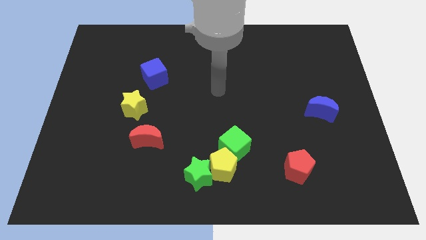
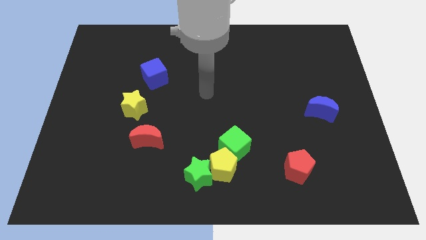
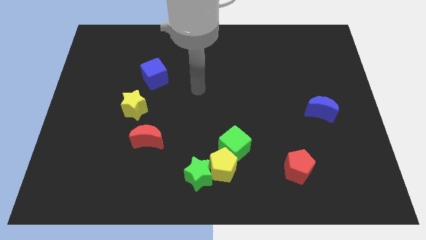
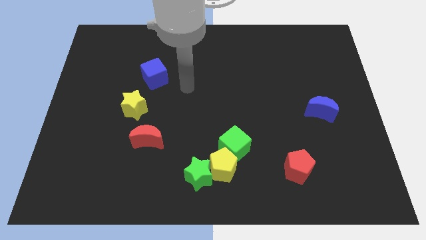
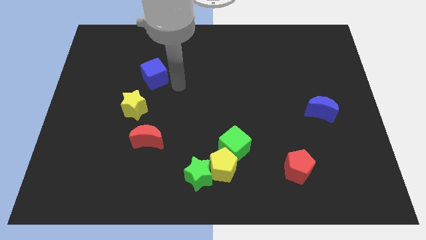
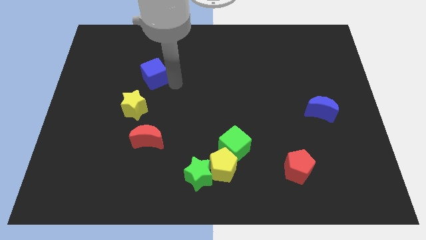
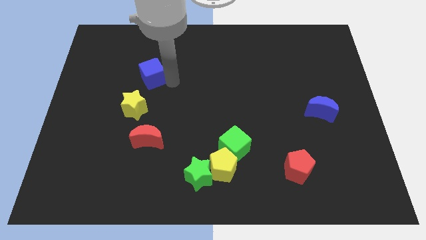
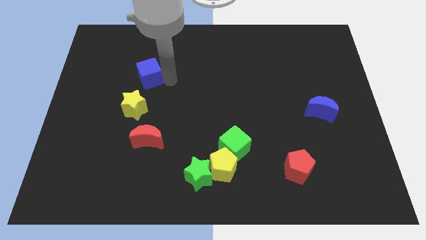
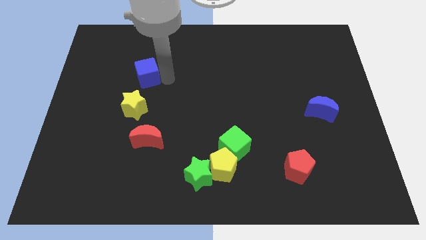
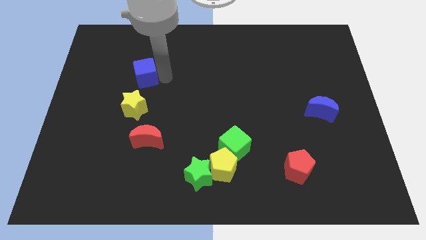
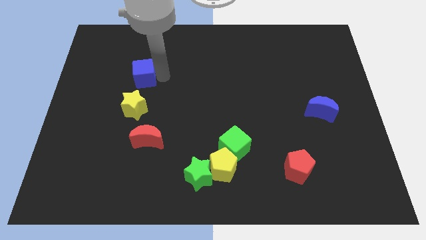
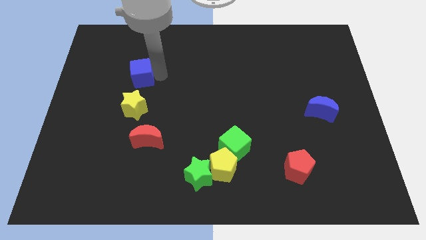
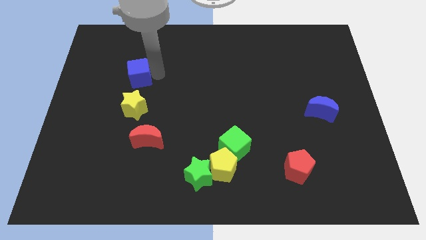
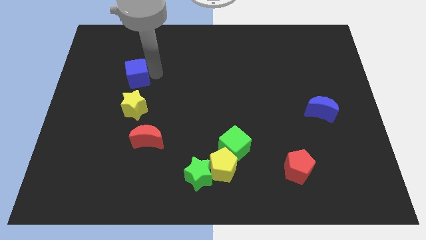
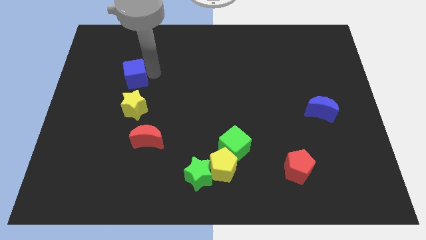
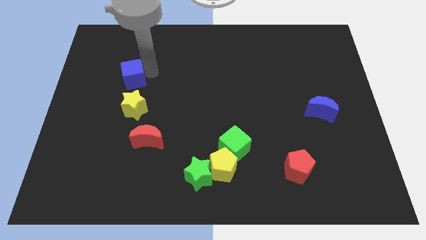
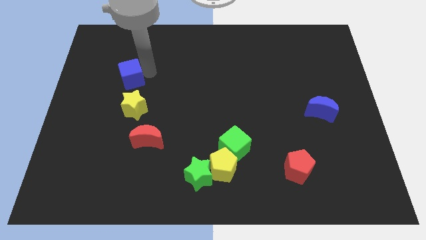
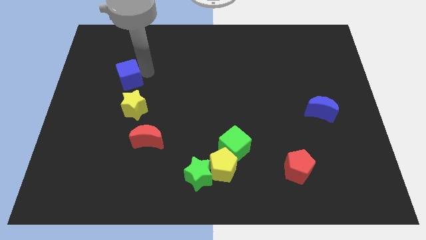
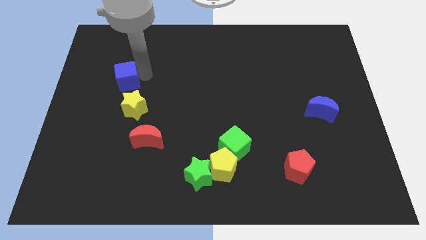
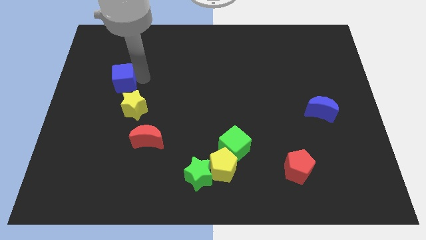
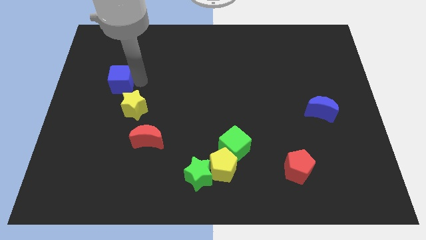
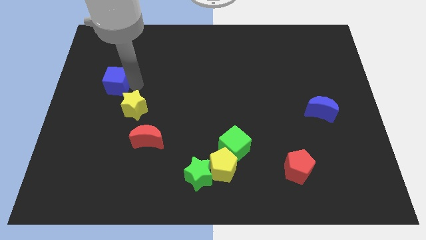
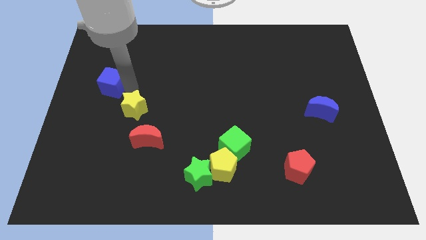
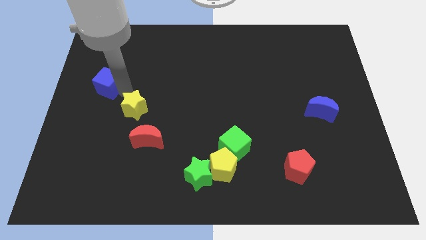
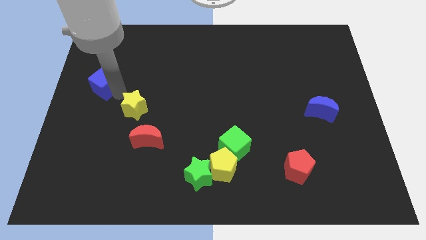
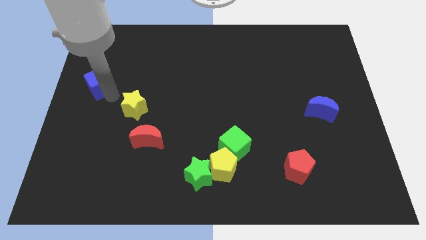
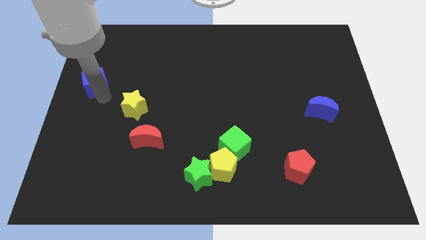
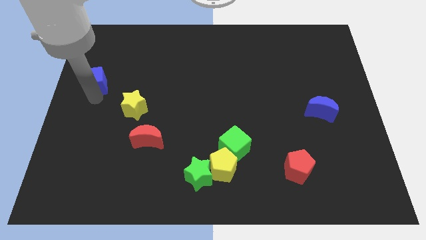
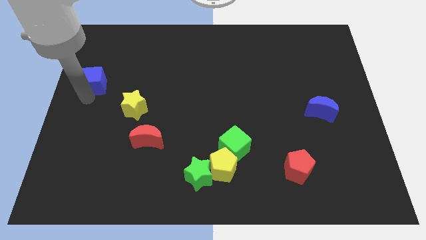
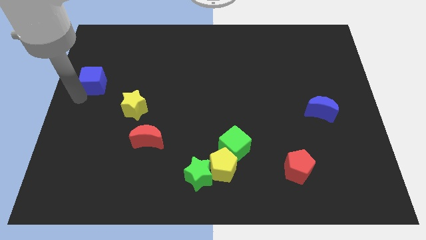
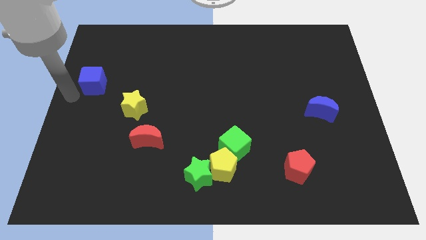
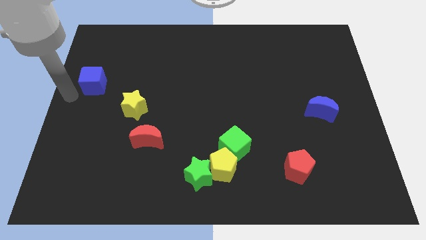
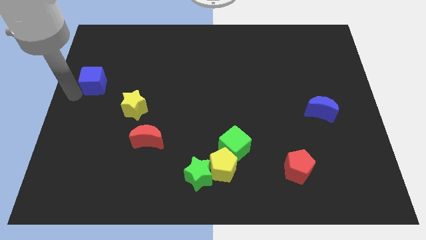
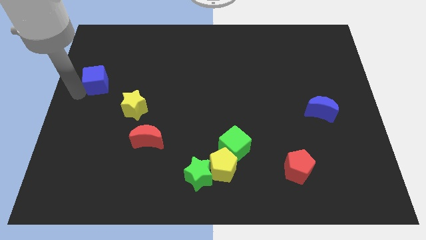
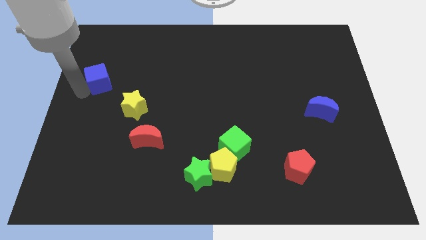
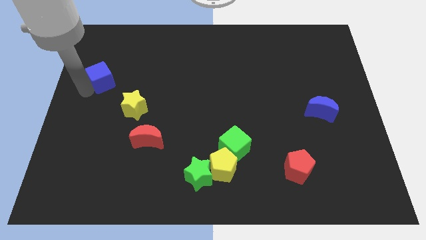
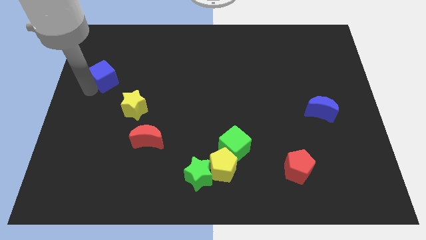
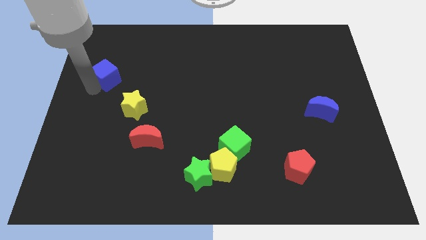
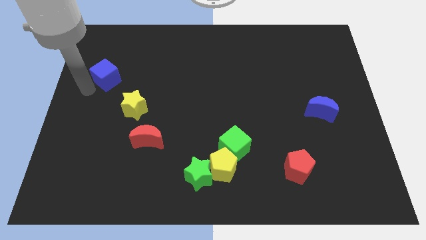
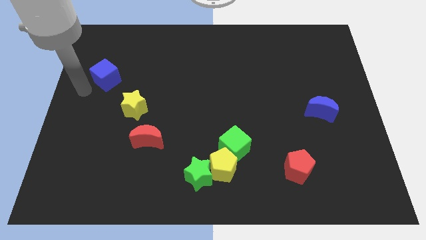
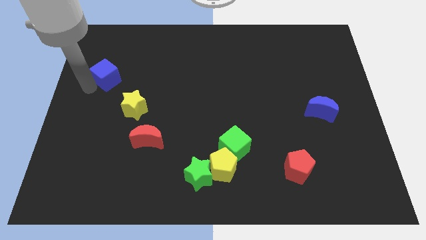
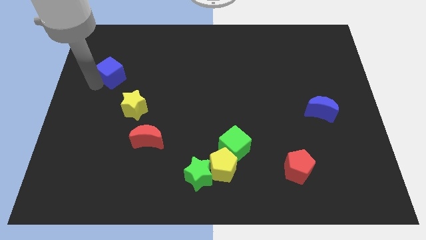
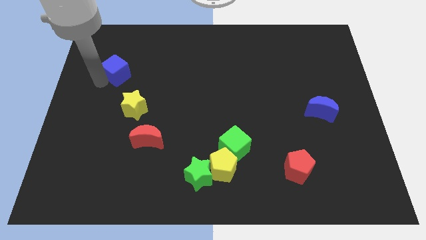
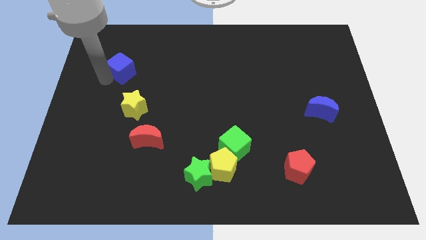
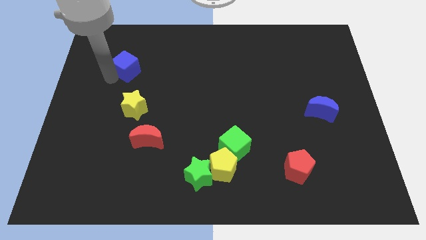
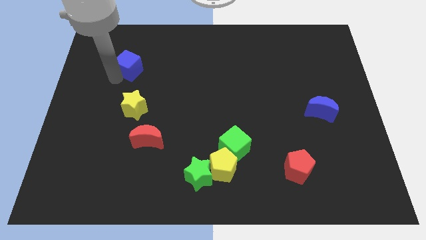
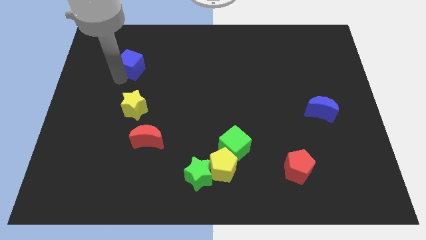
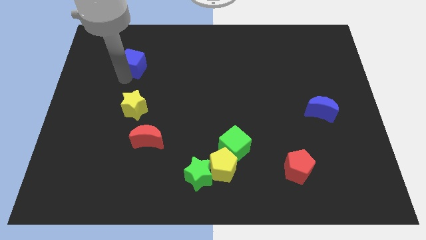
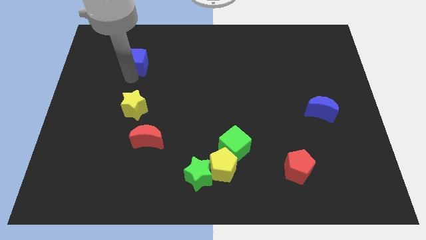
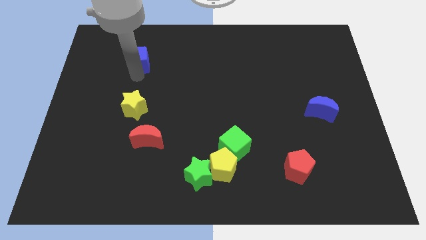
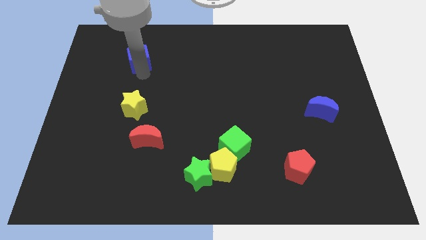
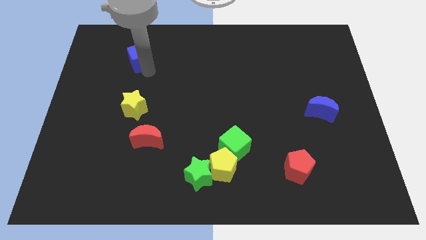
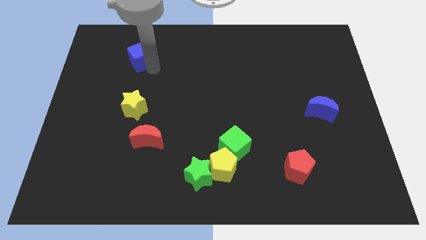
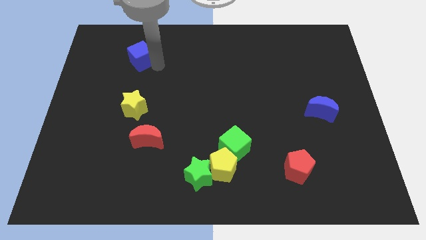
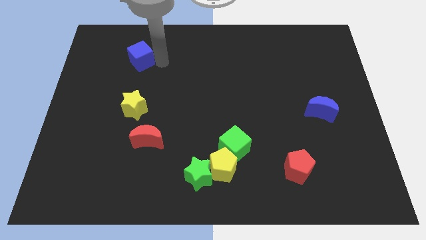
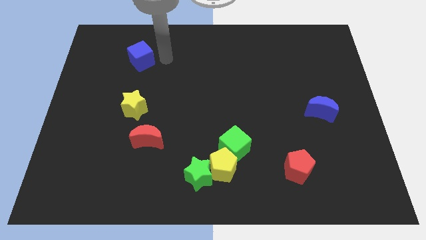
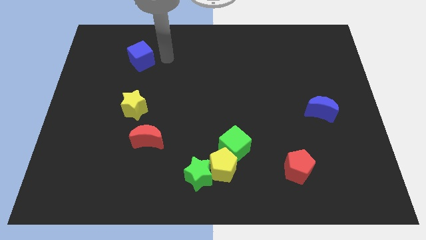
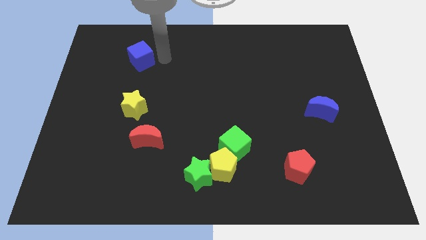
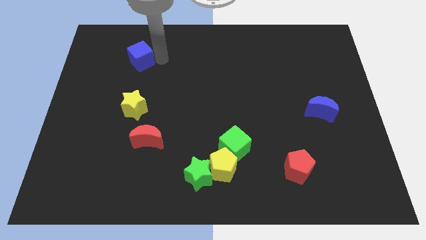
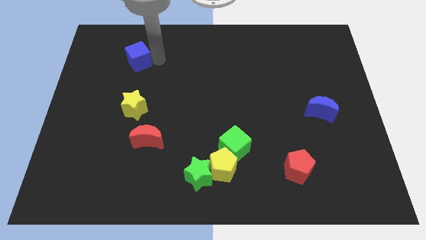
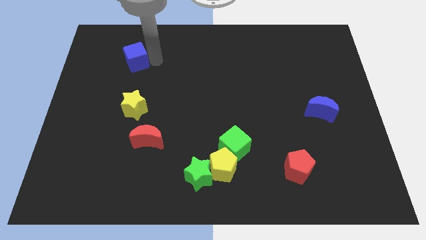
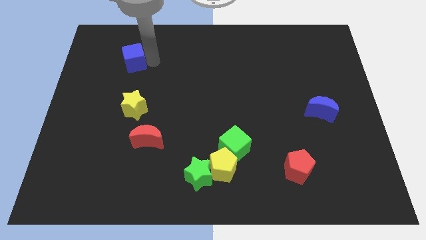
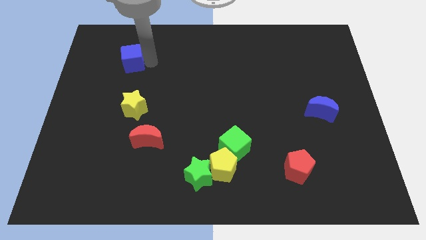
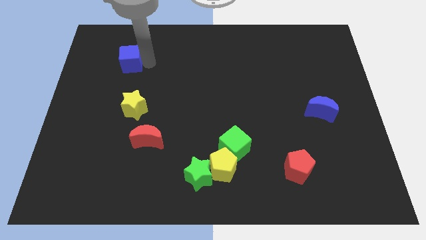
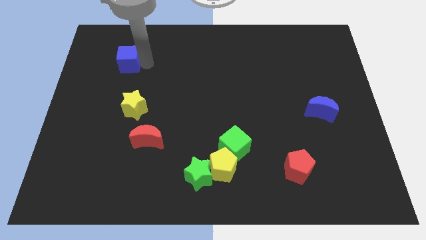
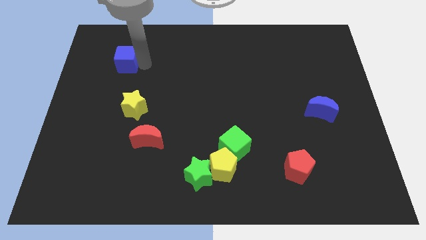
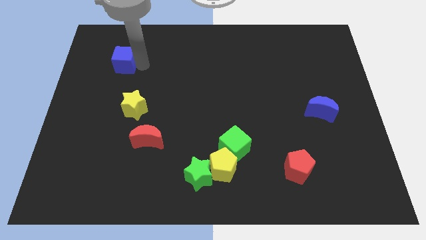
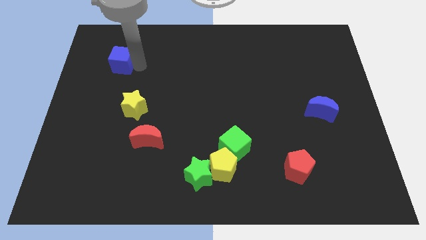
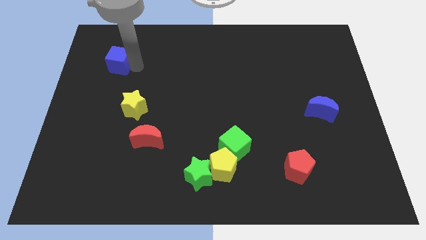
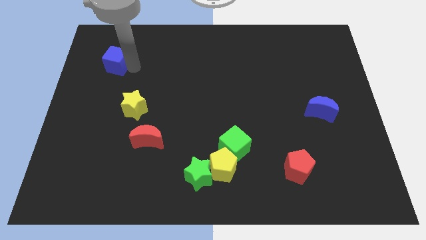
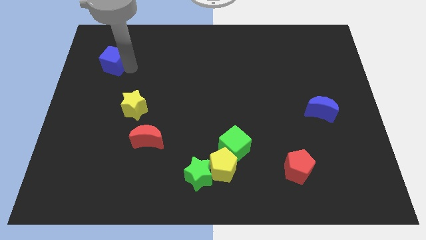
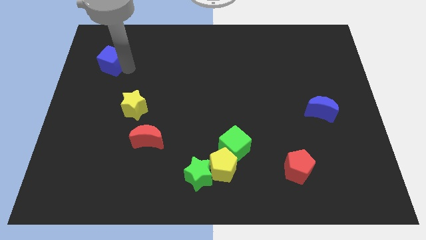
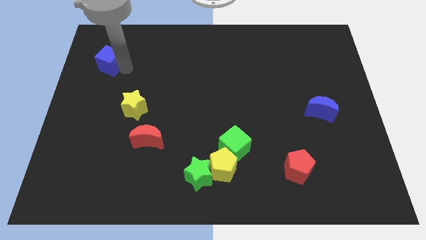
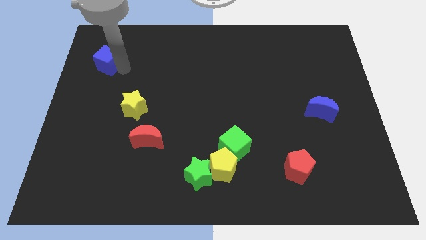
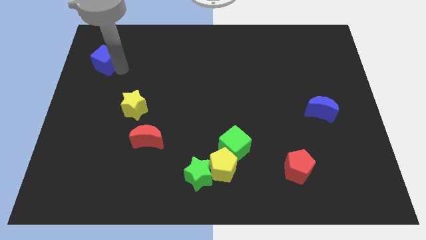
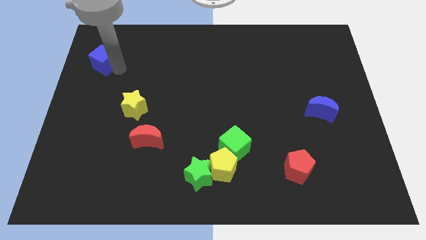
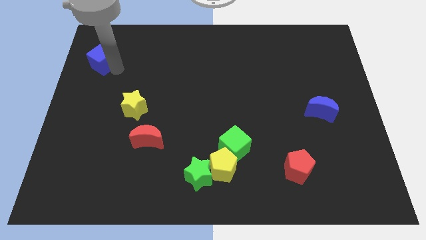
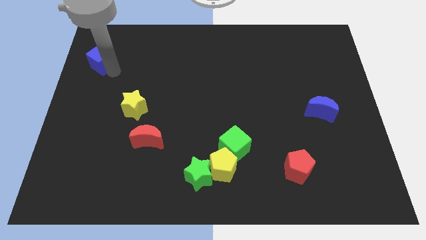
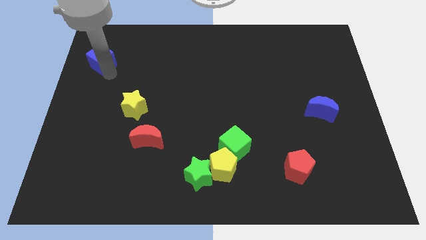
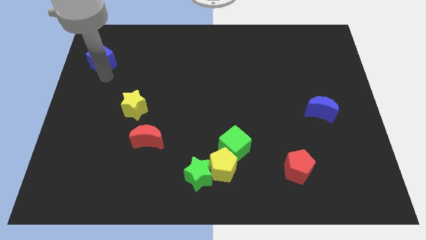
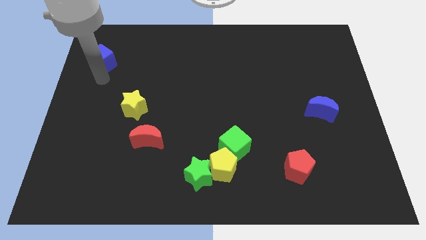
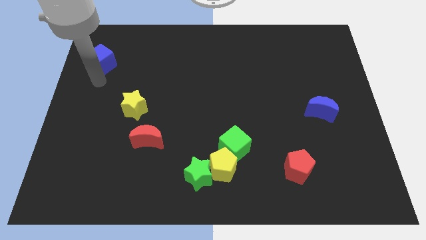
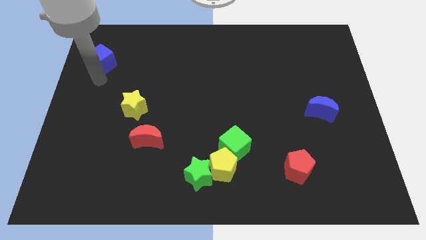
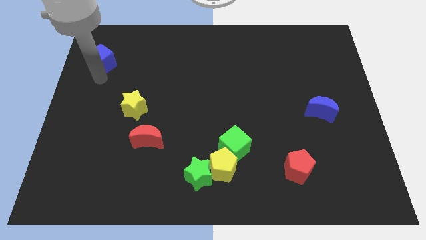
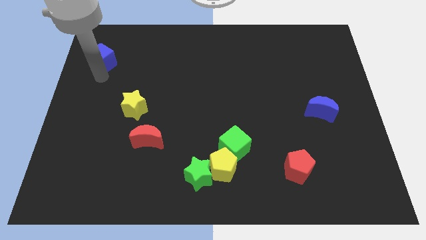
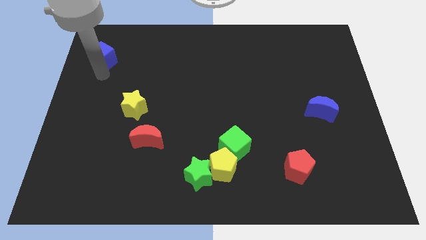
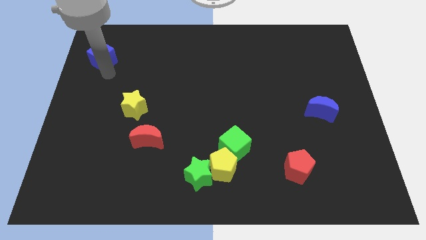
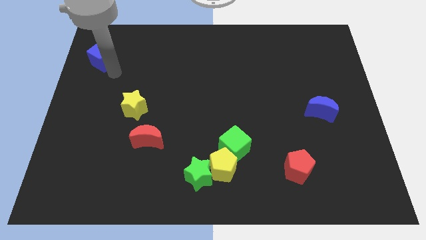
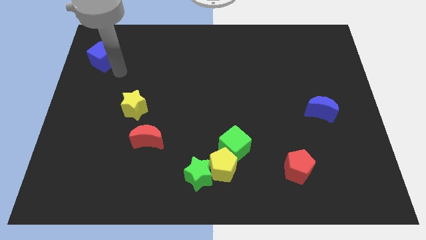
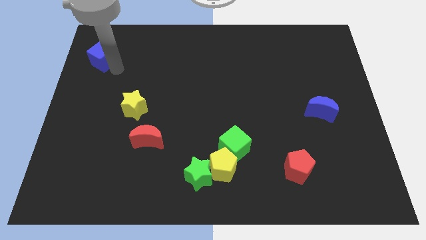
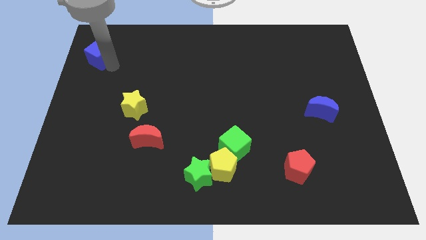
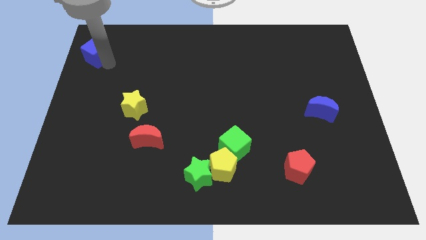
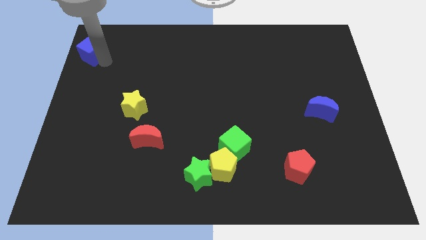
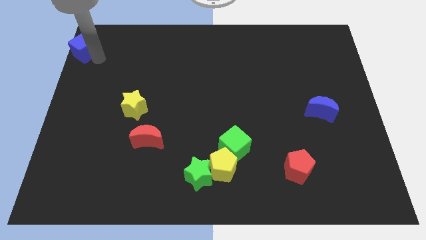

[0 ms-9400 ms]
put the blue cube to the top left corner
